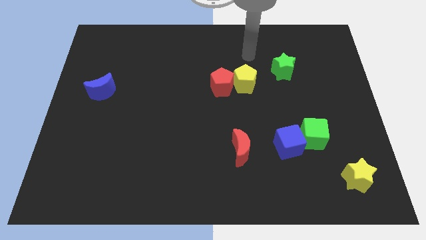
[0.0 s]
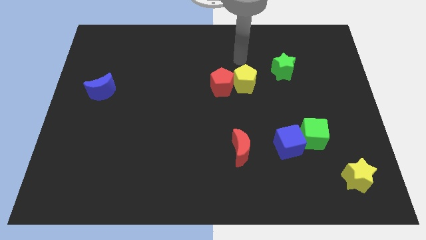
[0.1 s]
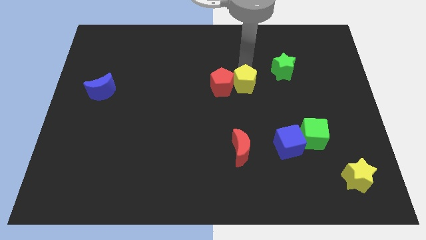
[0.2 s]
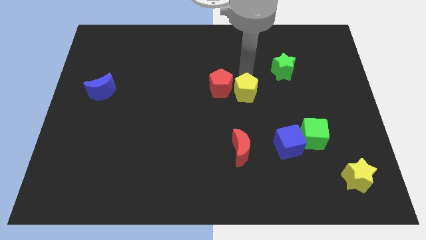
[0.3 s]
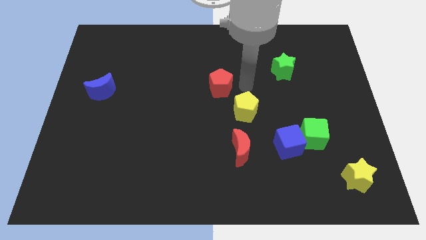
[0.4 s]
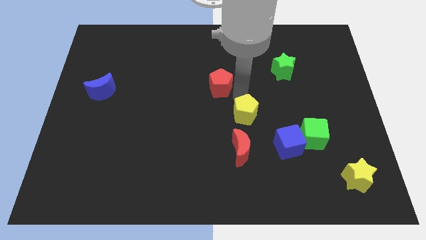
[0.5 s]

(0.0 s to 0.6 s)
pull the red pentagon apart from the yellow pentagon

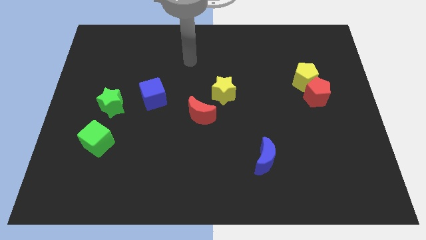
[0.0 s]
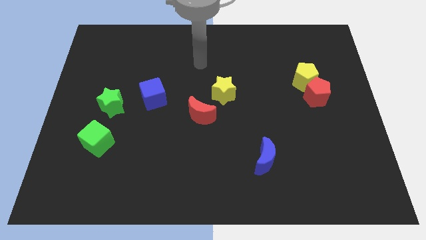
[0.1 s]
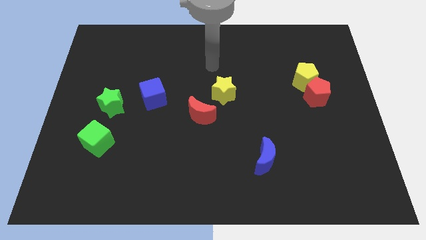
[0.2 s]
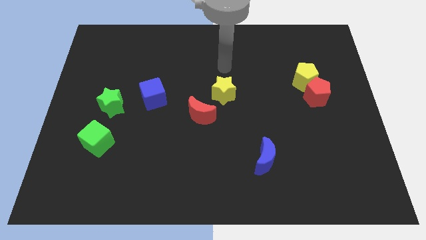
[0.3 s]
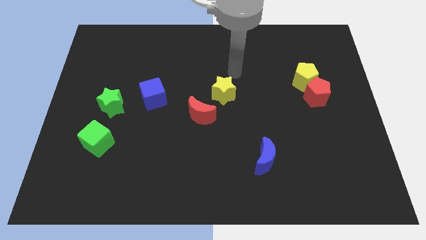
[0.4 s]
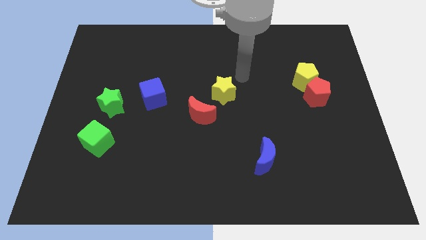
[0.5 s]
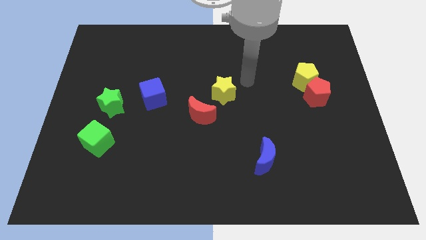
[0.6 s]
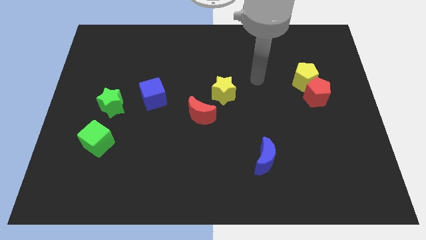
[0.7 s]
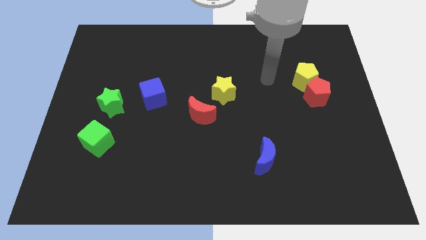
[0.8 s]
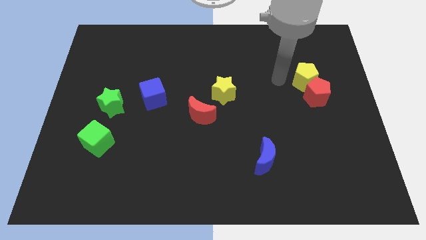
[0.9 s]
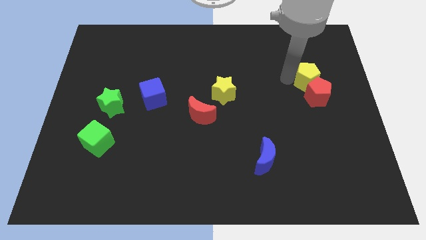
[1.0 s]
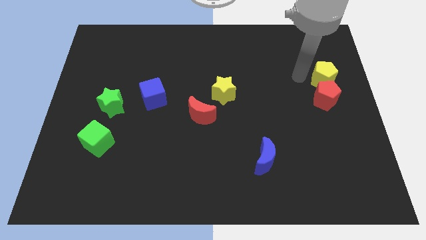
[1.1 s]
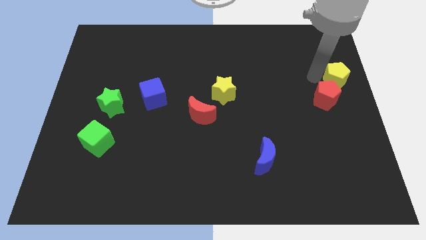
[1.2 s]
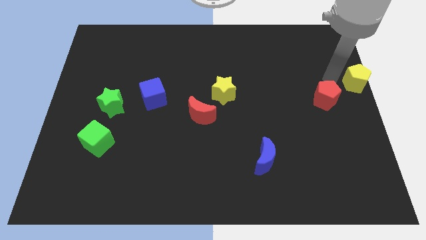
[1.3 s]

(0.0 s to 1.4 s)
separate the red pentagon from the yellow pentagon

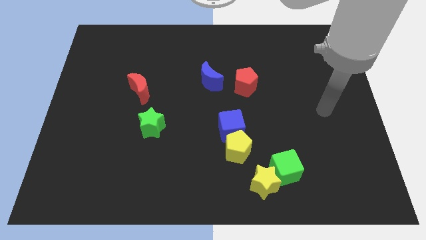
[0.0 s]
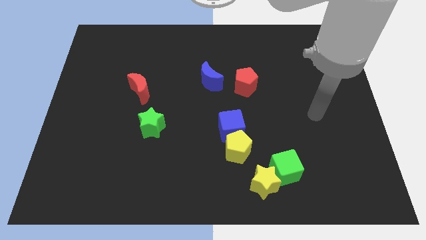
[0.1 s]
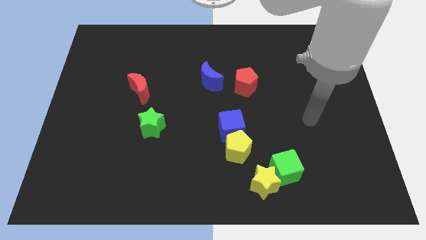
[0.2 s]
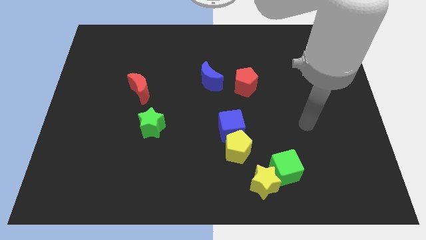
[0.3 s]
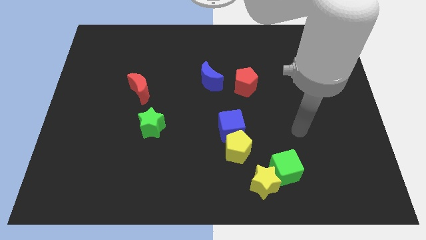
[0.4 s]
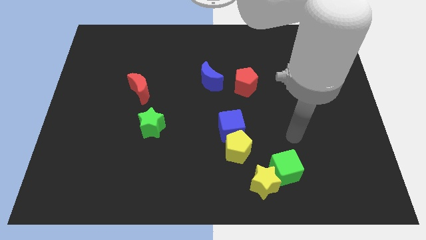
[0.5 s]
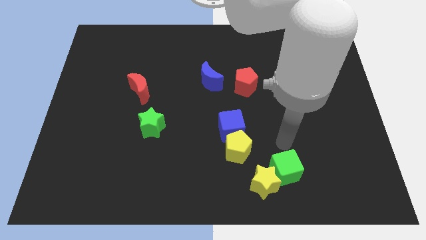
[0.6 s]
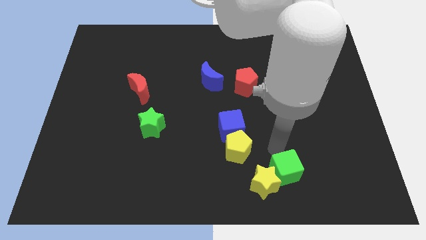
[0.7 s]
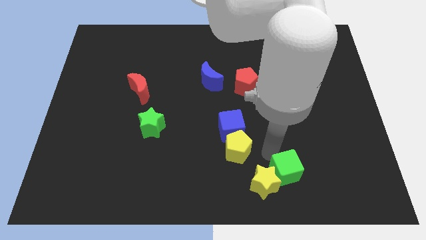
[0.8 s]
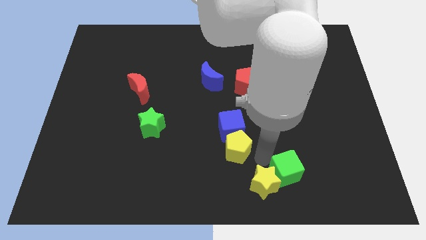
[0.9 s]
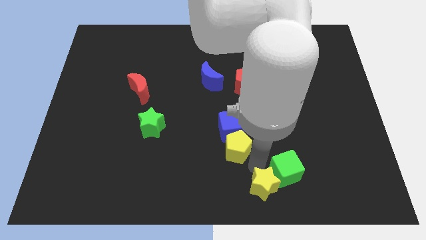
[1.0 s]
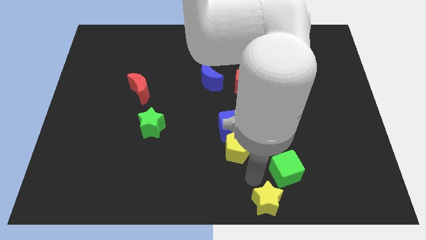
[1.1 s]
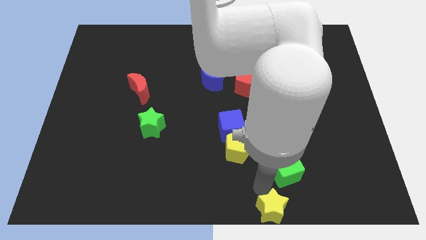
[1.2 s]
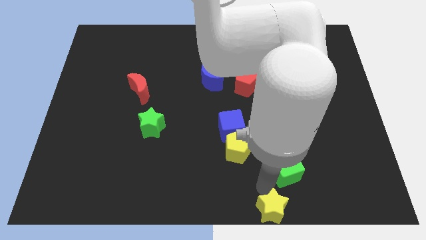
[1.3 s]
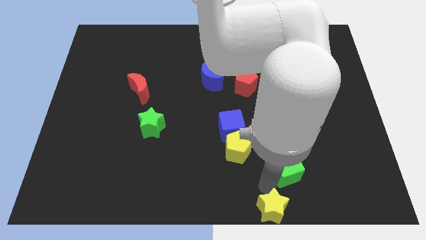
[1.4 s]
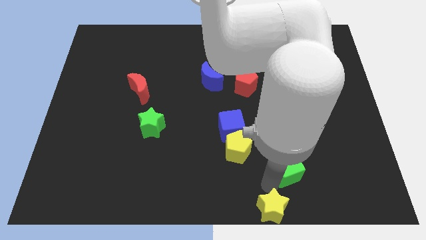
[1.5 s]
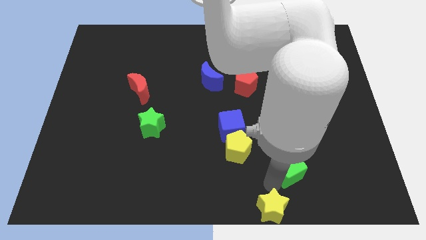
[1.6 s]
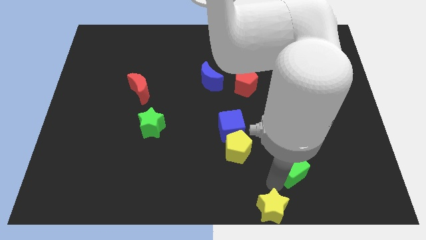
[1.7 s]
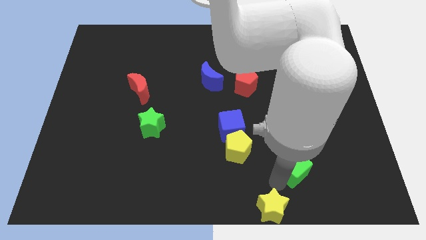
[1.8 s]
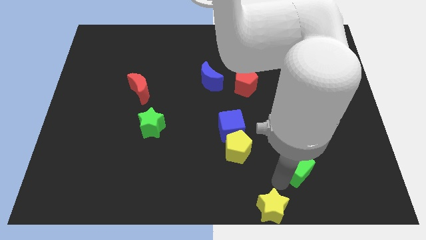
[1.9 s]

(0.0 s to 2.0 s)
separate the green cube from the yellow star

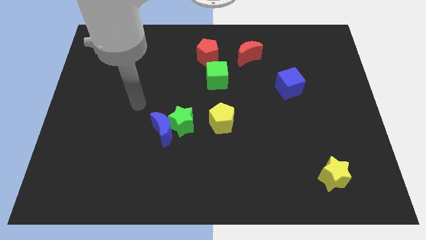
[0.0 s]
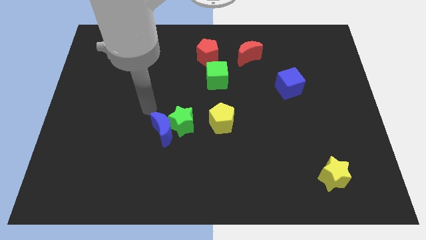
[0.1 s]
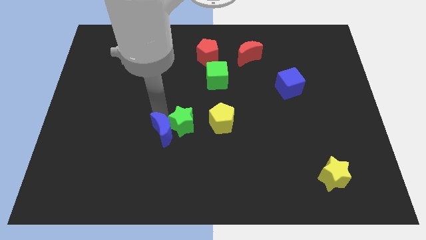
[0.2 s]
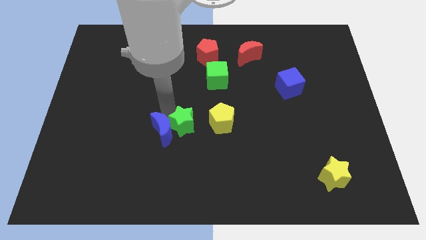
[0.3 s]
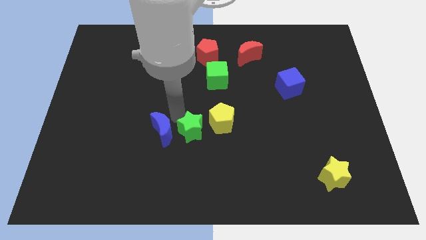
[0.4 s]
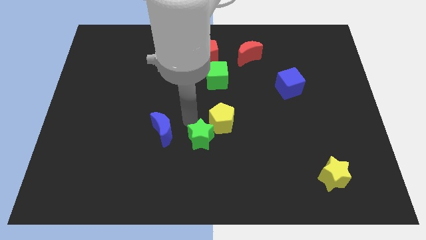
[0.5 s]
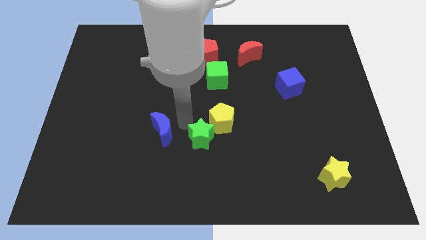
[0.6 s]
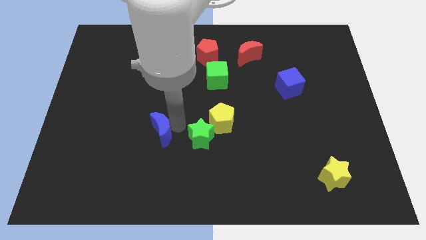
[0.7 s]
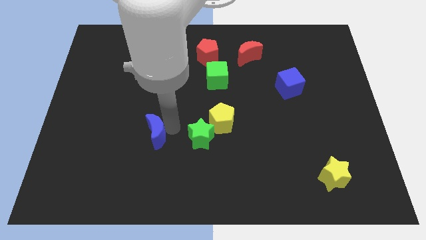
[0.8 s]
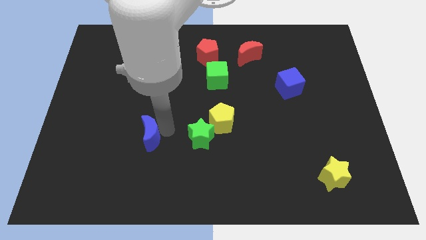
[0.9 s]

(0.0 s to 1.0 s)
pull the blue moon apart from the green star

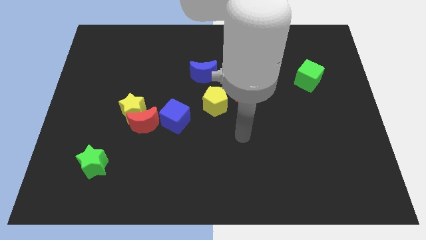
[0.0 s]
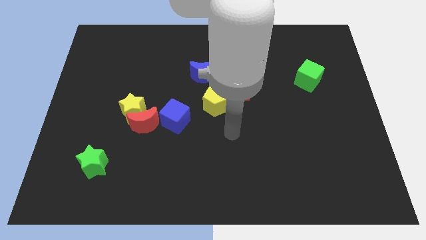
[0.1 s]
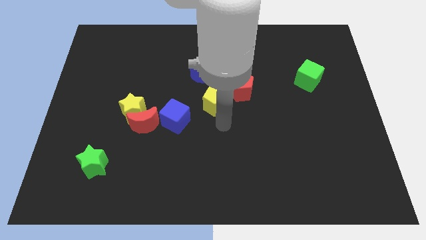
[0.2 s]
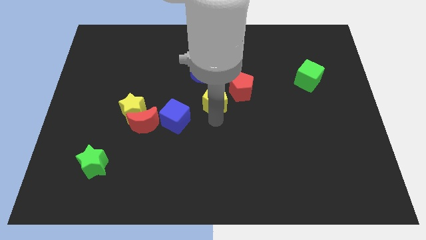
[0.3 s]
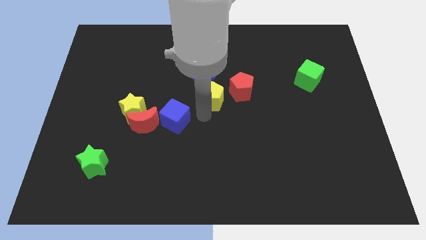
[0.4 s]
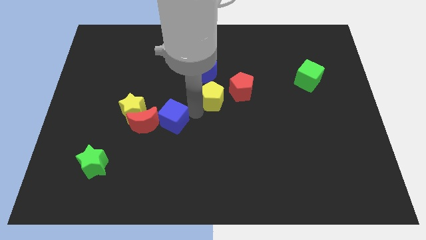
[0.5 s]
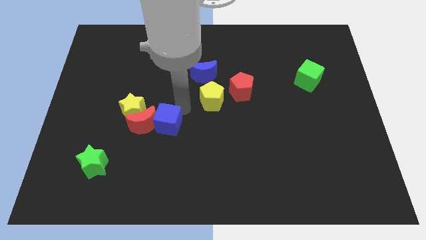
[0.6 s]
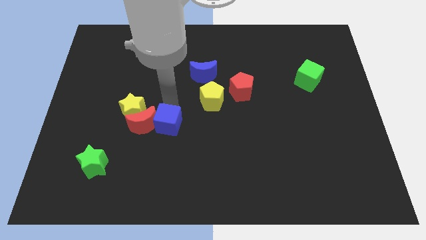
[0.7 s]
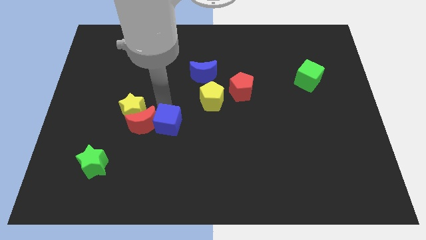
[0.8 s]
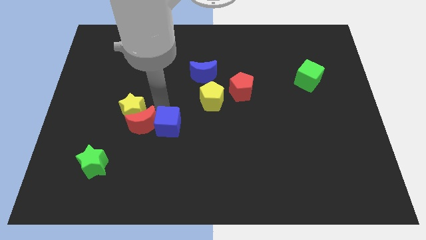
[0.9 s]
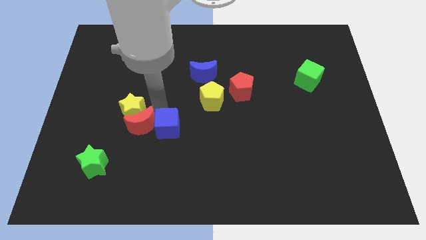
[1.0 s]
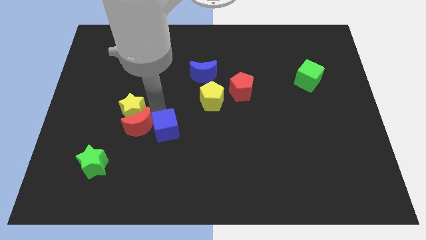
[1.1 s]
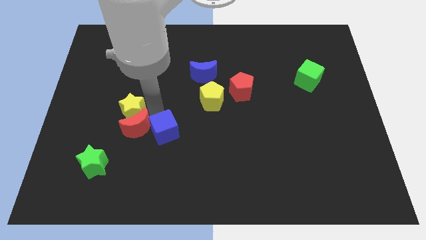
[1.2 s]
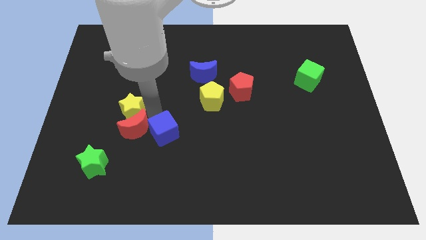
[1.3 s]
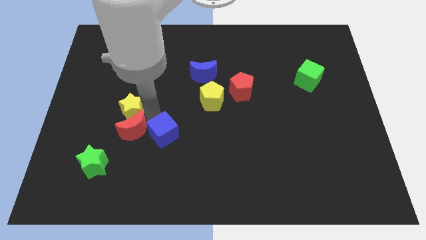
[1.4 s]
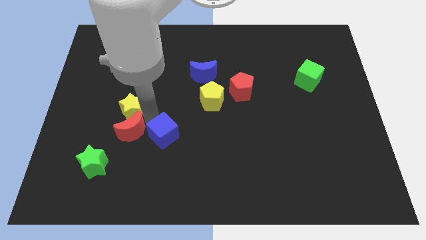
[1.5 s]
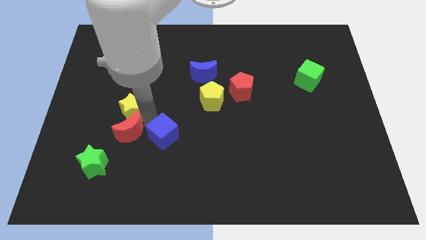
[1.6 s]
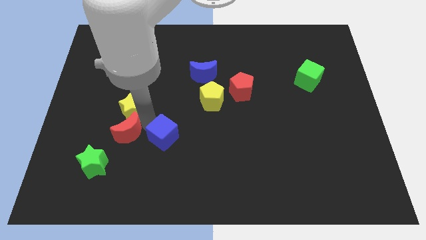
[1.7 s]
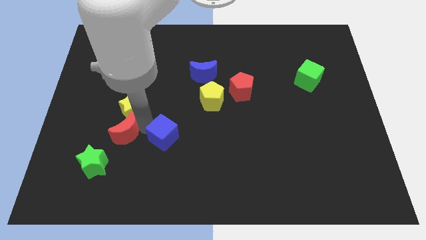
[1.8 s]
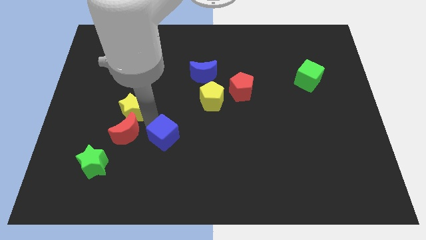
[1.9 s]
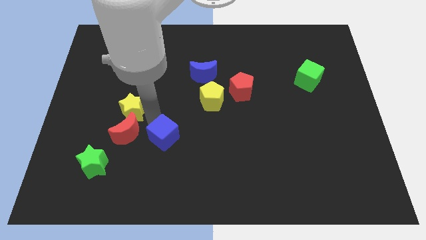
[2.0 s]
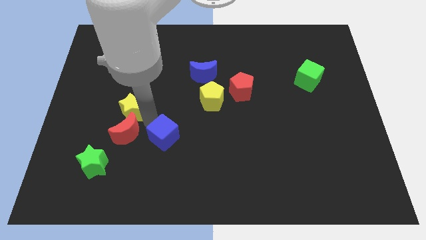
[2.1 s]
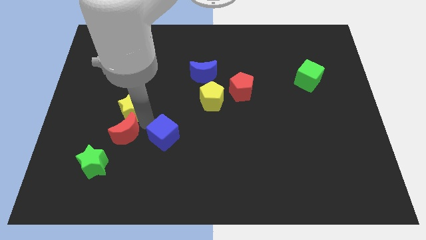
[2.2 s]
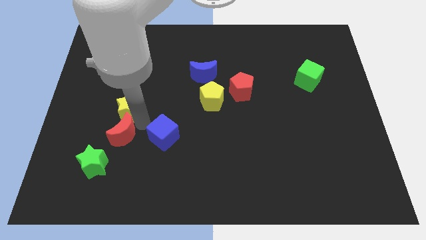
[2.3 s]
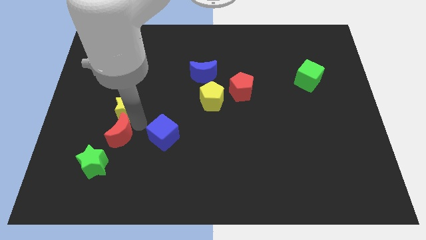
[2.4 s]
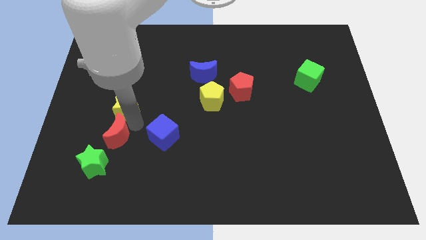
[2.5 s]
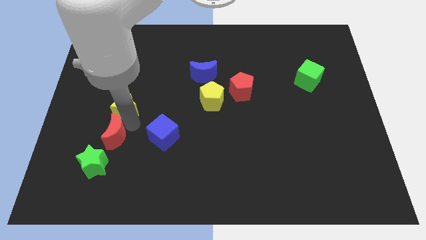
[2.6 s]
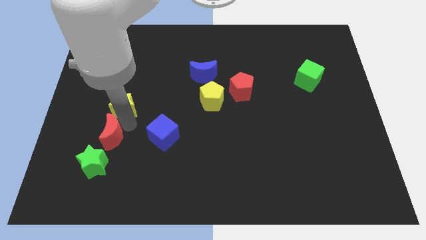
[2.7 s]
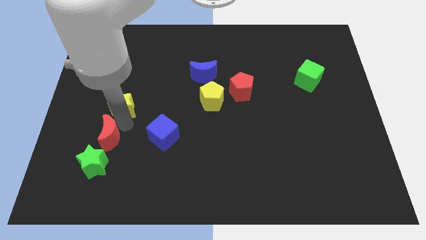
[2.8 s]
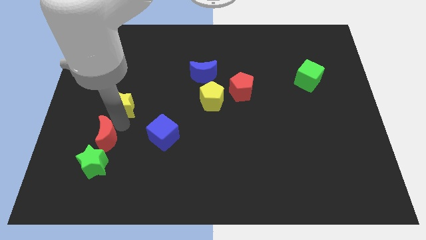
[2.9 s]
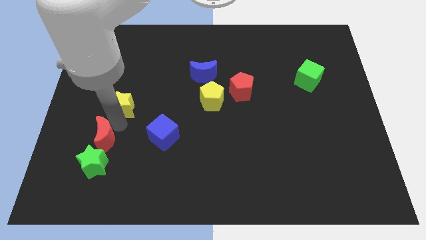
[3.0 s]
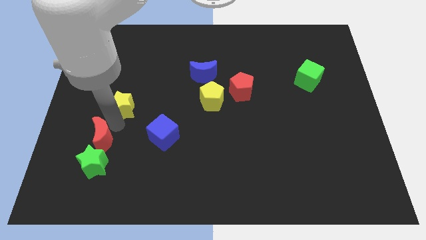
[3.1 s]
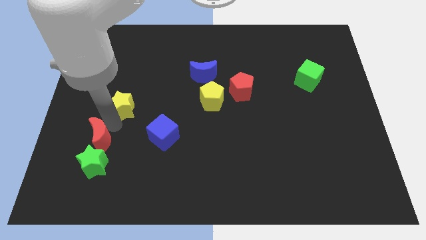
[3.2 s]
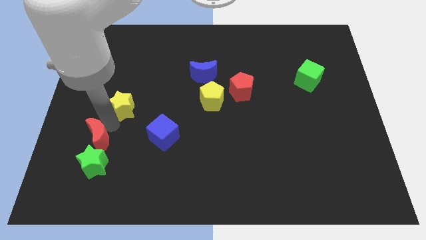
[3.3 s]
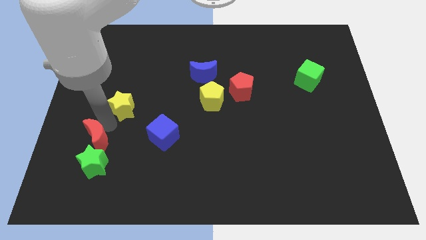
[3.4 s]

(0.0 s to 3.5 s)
move the red moon away from the yellow star and blue cube

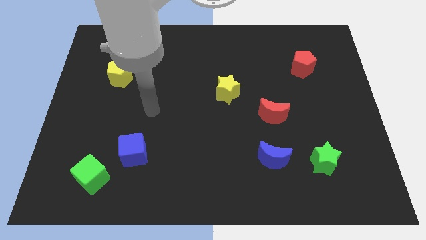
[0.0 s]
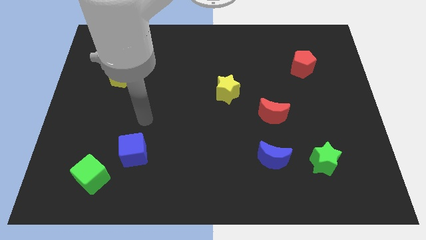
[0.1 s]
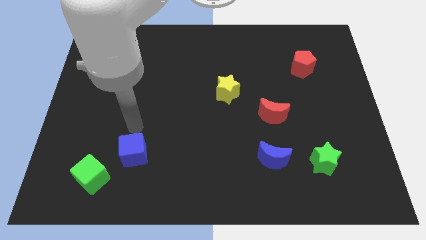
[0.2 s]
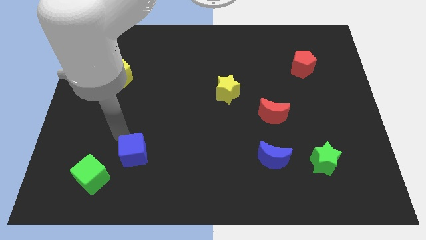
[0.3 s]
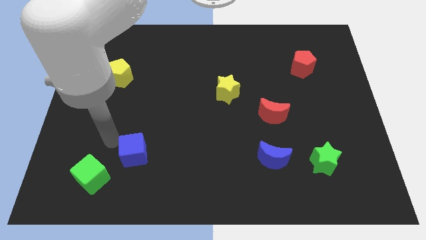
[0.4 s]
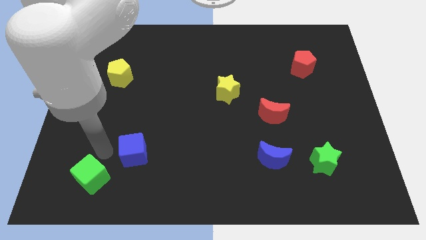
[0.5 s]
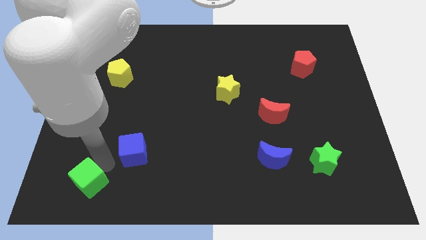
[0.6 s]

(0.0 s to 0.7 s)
move the blue cube away from the green cube
